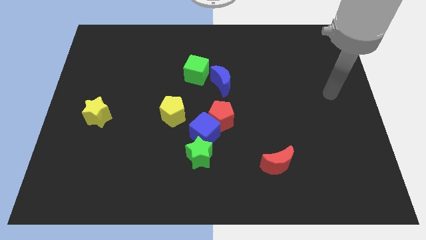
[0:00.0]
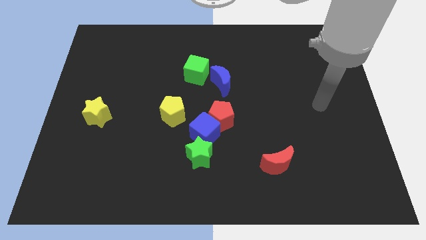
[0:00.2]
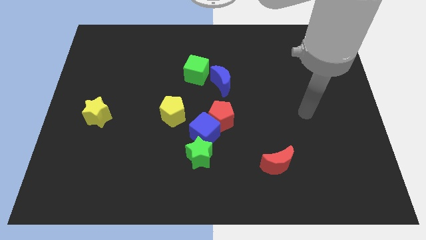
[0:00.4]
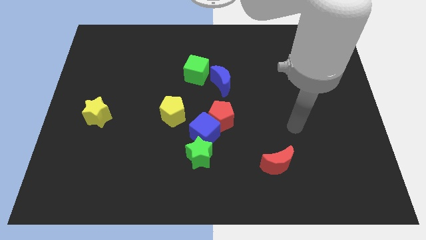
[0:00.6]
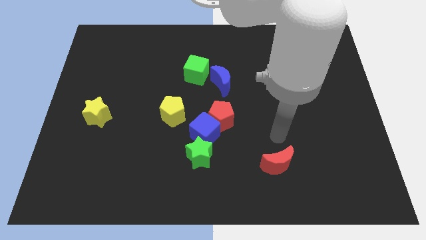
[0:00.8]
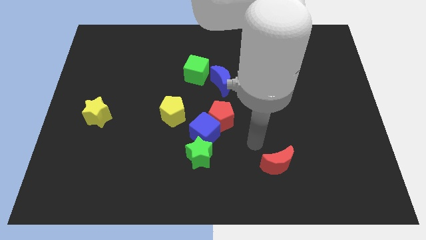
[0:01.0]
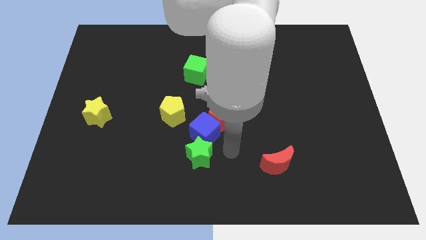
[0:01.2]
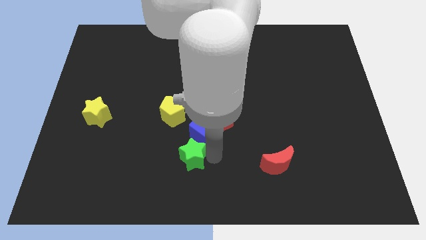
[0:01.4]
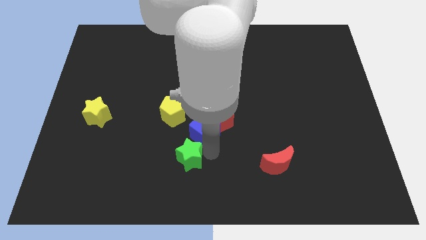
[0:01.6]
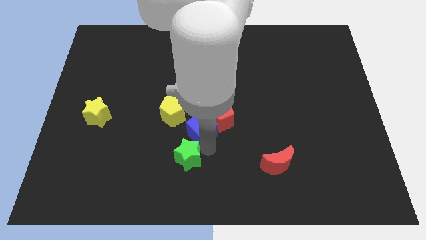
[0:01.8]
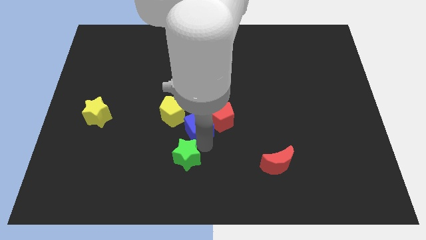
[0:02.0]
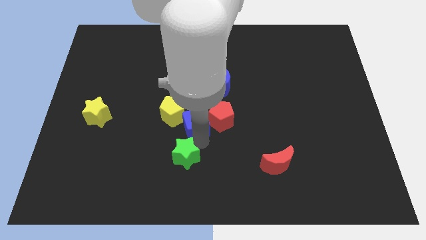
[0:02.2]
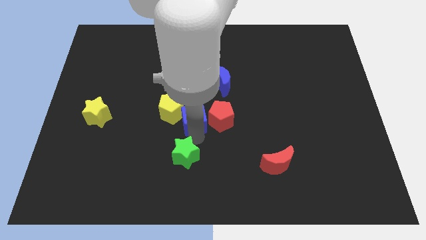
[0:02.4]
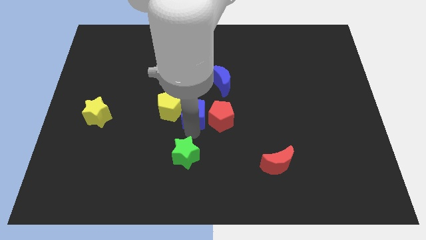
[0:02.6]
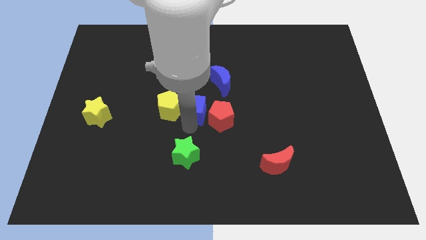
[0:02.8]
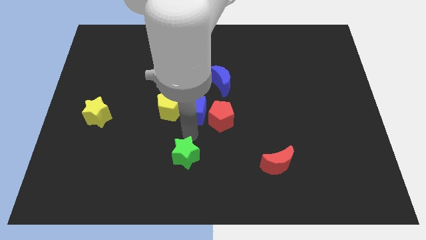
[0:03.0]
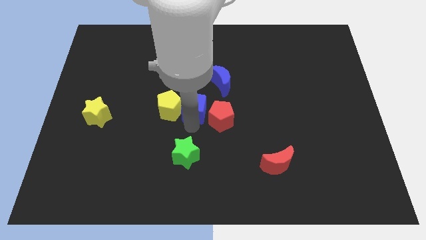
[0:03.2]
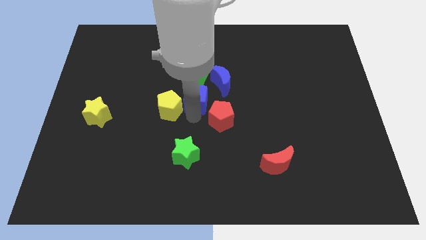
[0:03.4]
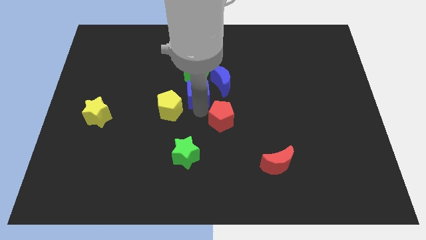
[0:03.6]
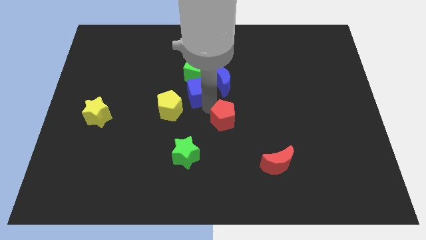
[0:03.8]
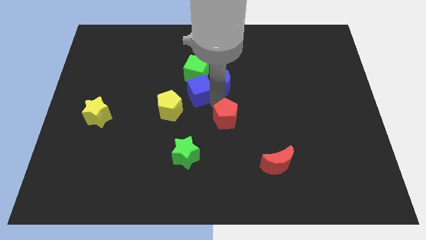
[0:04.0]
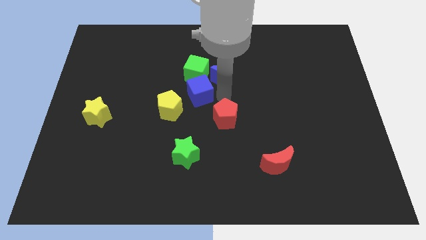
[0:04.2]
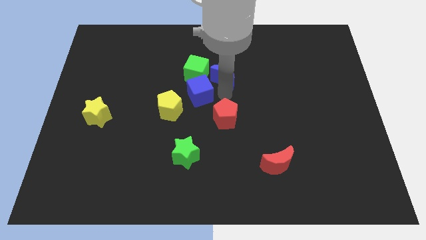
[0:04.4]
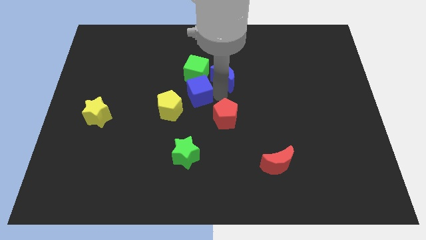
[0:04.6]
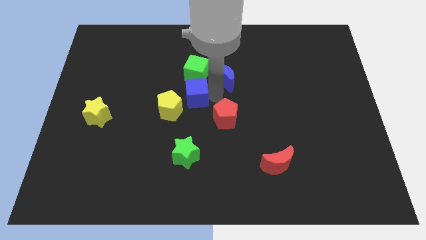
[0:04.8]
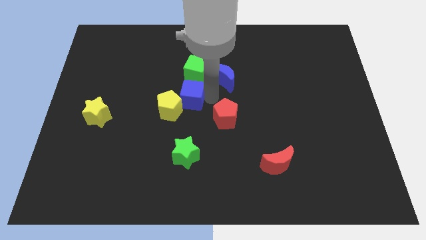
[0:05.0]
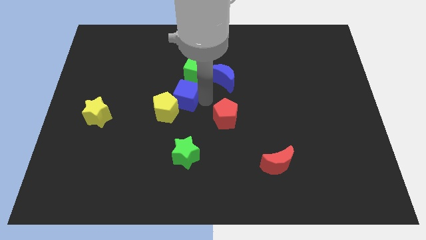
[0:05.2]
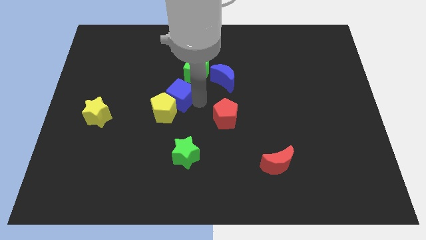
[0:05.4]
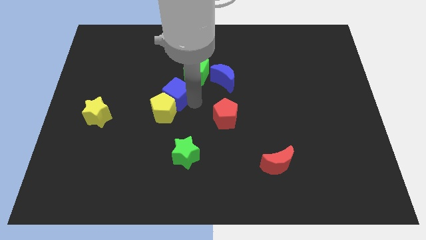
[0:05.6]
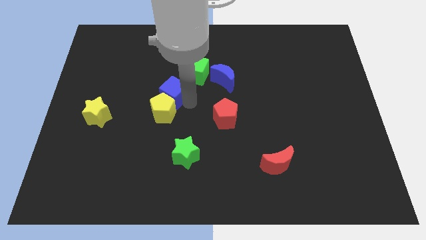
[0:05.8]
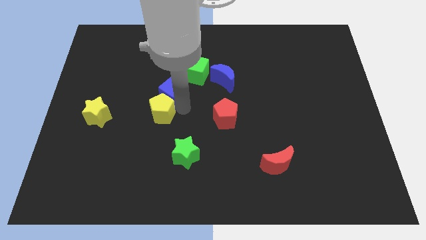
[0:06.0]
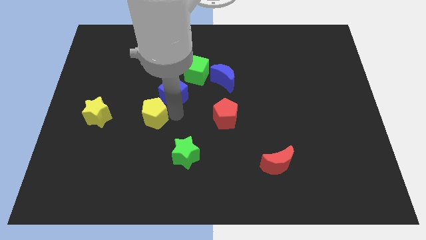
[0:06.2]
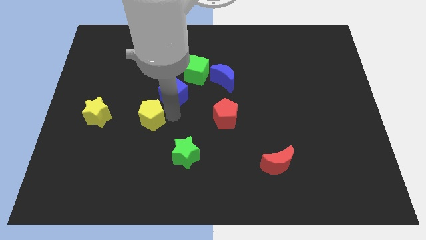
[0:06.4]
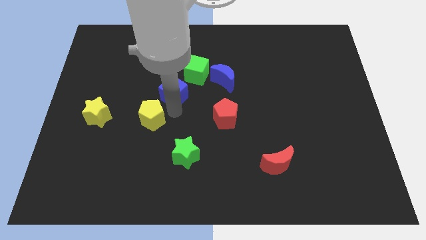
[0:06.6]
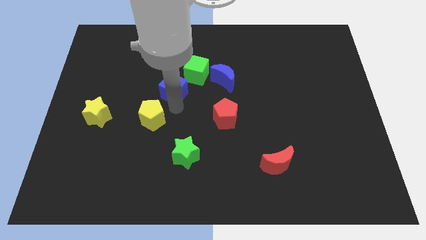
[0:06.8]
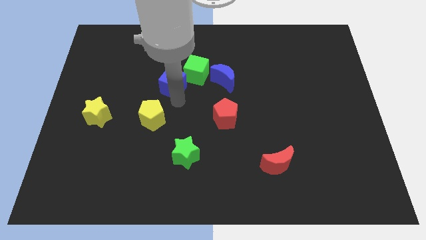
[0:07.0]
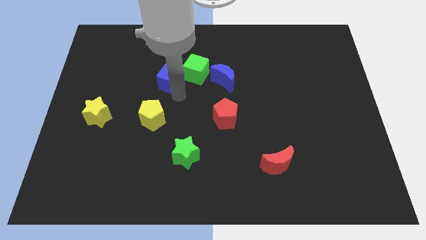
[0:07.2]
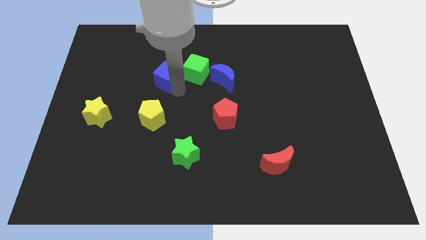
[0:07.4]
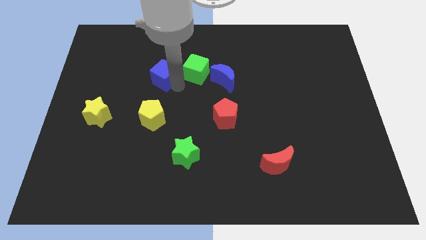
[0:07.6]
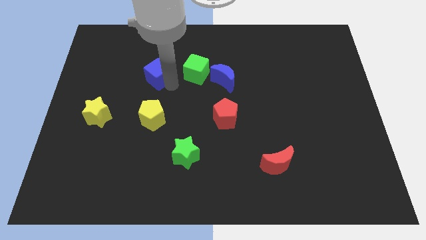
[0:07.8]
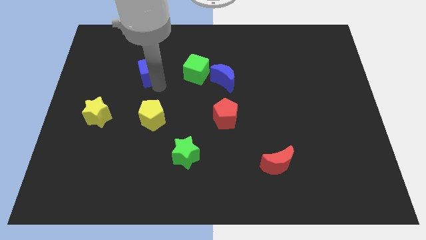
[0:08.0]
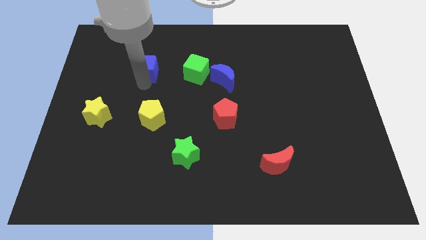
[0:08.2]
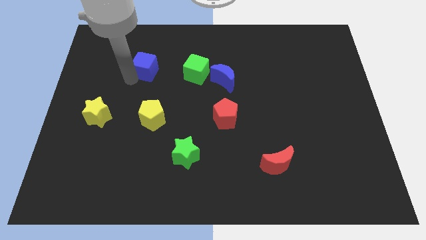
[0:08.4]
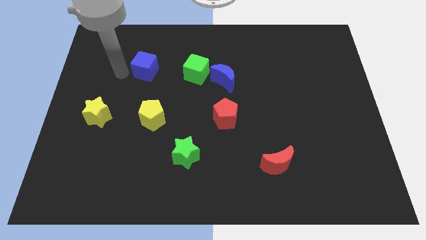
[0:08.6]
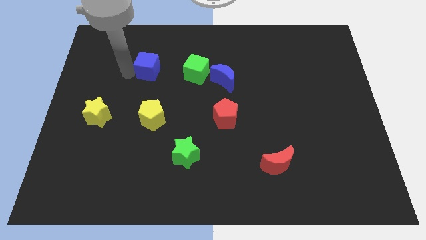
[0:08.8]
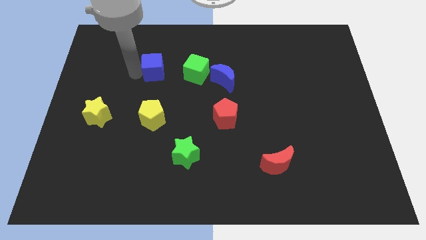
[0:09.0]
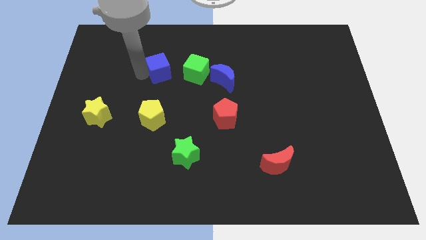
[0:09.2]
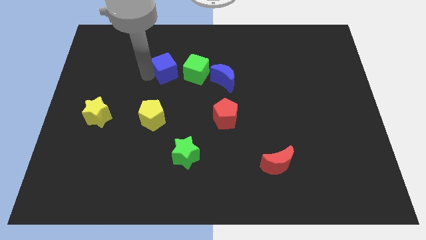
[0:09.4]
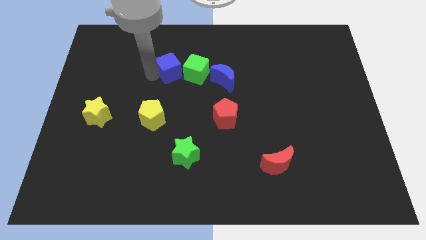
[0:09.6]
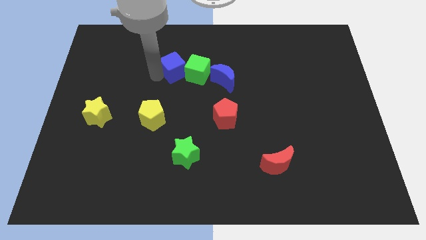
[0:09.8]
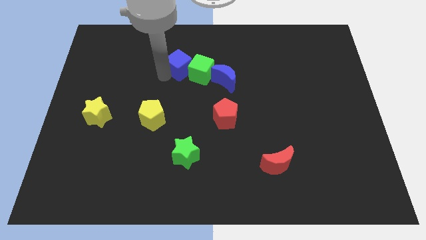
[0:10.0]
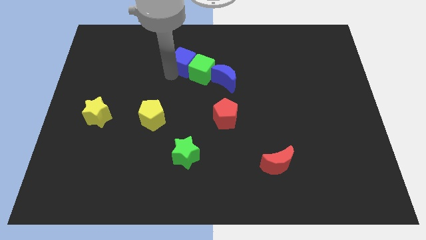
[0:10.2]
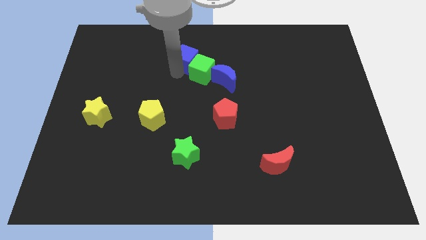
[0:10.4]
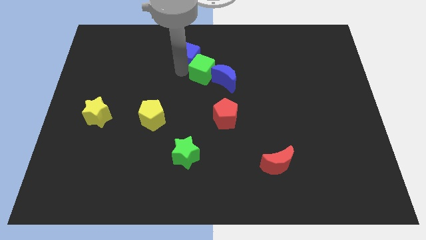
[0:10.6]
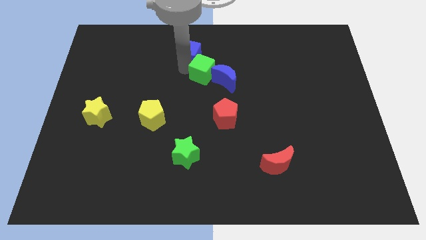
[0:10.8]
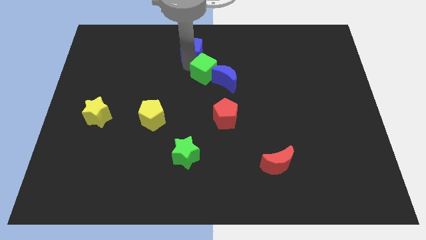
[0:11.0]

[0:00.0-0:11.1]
push the blue cube to the top

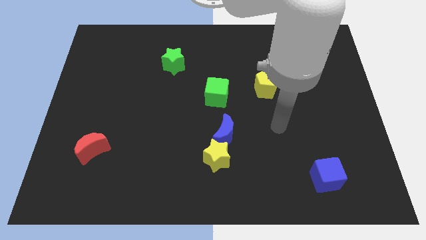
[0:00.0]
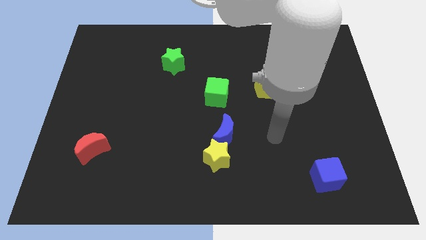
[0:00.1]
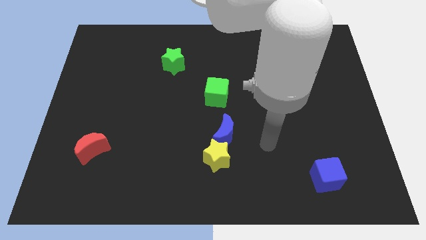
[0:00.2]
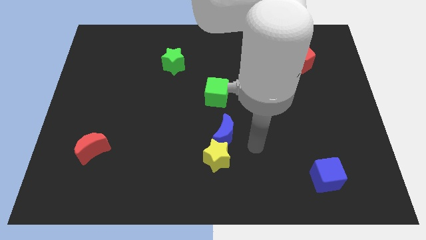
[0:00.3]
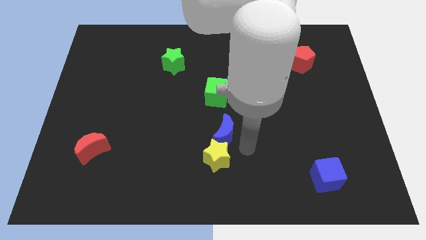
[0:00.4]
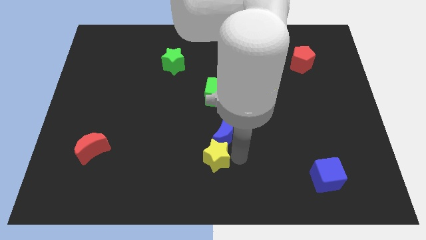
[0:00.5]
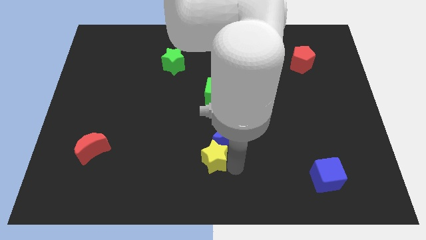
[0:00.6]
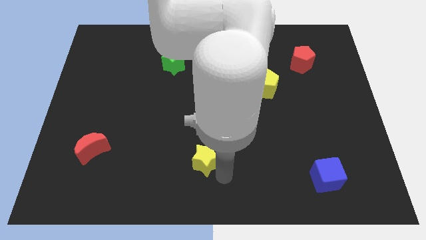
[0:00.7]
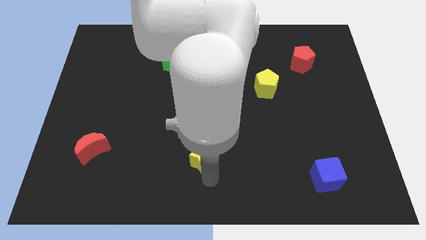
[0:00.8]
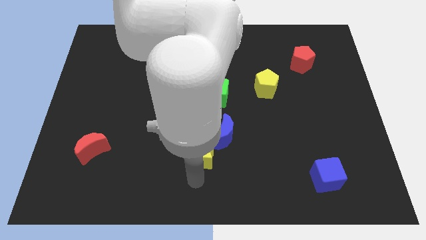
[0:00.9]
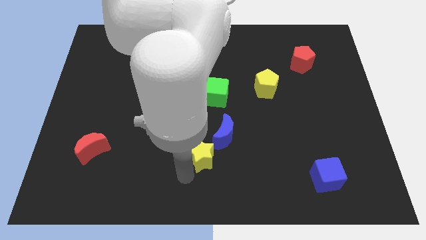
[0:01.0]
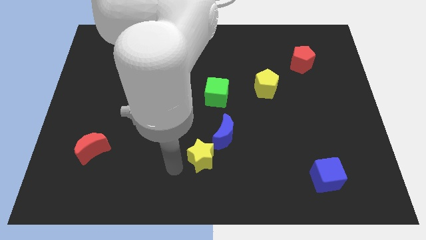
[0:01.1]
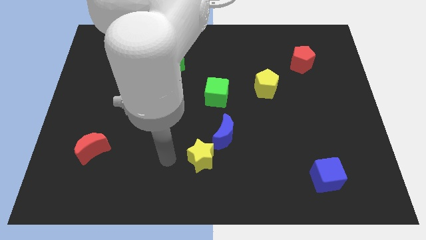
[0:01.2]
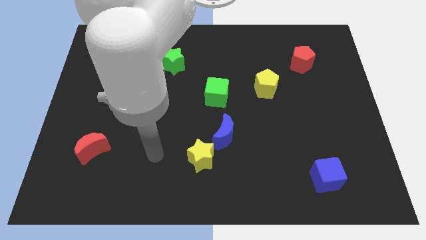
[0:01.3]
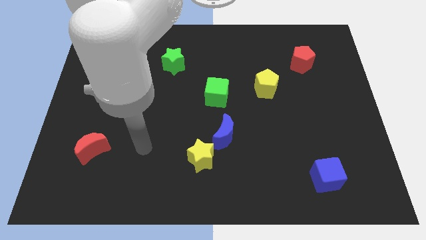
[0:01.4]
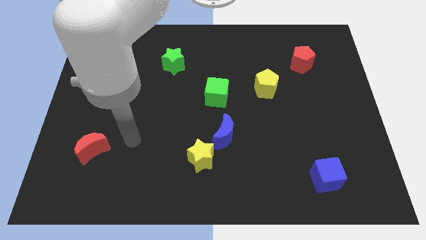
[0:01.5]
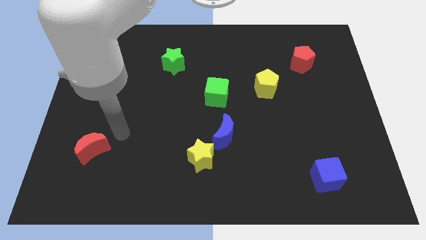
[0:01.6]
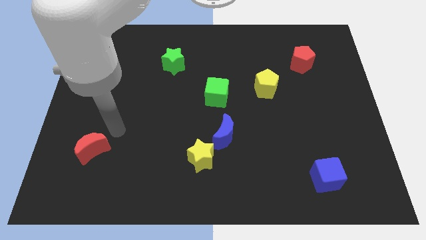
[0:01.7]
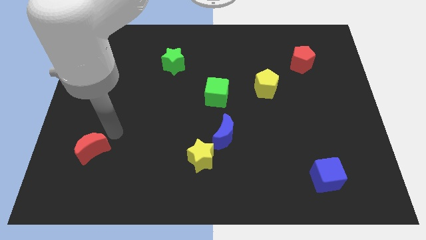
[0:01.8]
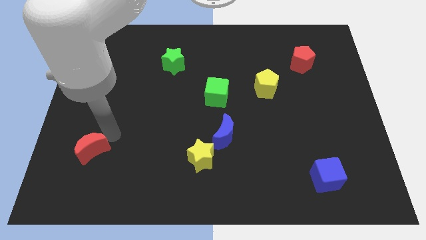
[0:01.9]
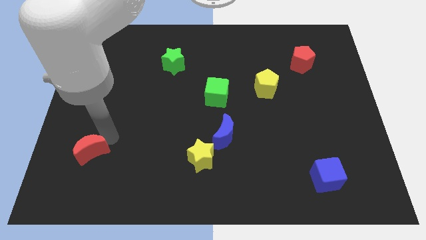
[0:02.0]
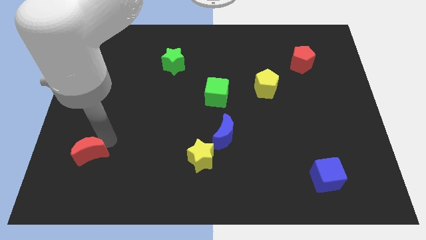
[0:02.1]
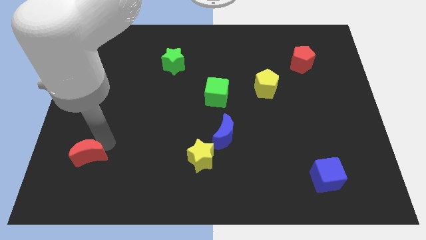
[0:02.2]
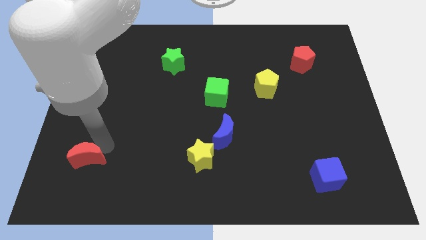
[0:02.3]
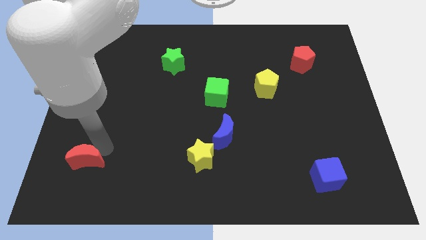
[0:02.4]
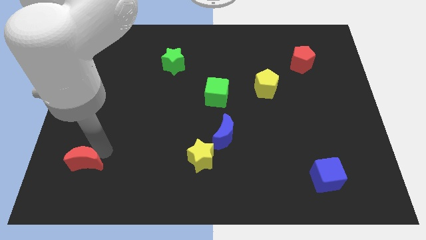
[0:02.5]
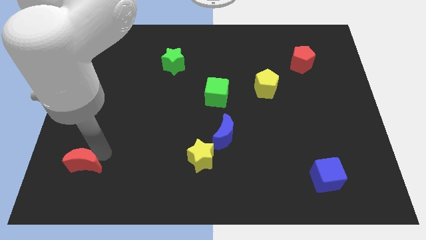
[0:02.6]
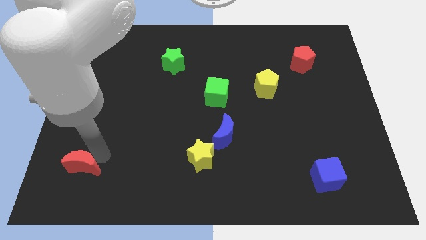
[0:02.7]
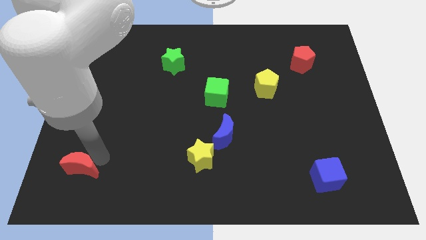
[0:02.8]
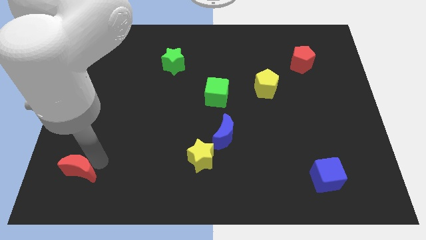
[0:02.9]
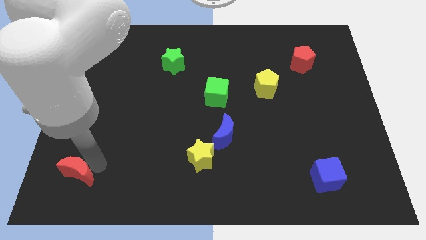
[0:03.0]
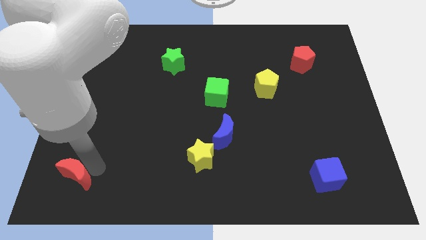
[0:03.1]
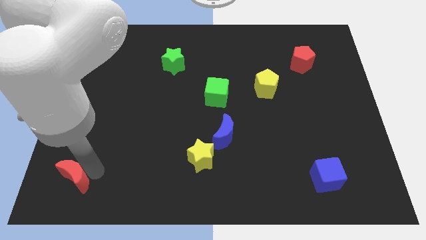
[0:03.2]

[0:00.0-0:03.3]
put the red moon to the bottom left corner
